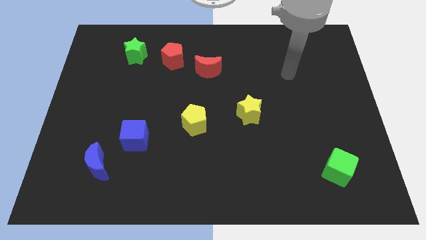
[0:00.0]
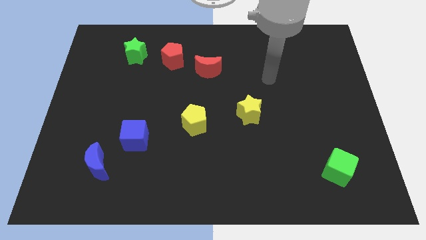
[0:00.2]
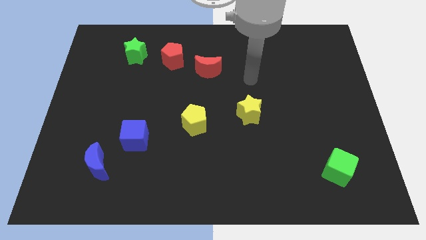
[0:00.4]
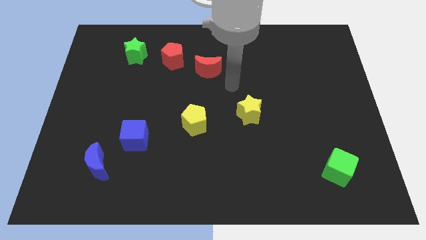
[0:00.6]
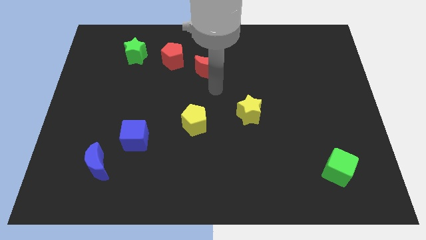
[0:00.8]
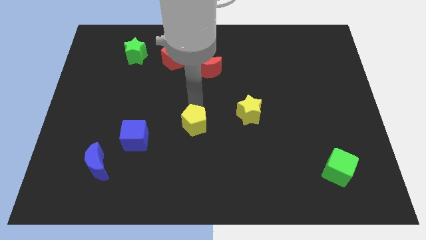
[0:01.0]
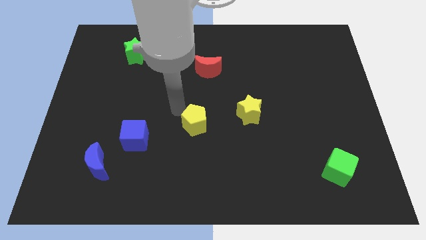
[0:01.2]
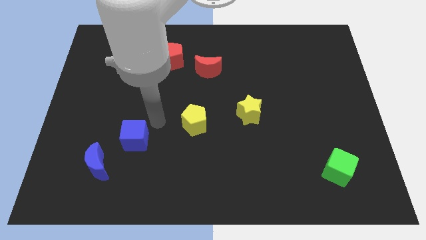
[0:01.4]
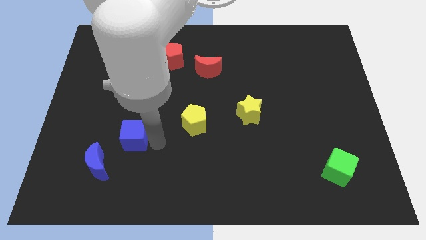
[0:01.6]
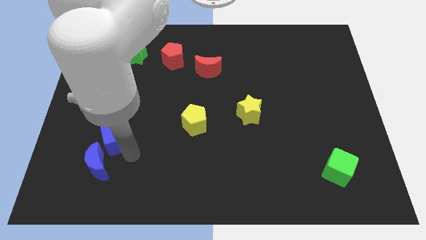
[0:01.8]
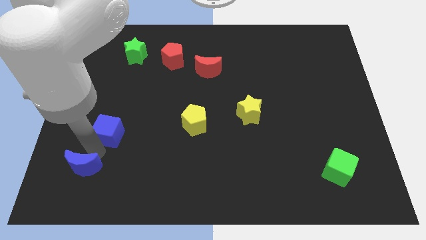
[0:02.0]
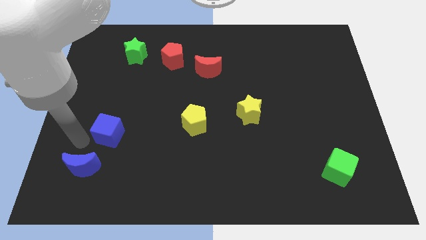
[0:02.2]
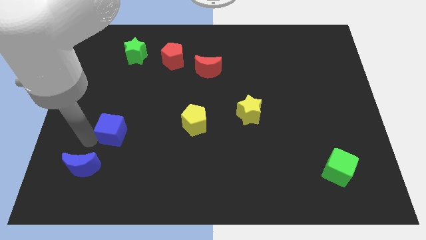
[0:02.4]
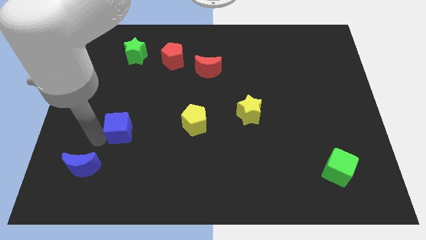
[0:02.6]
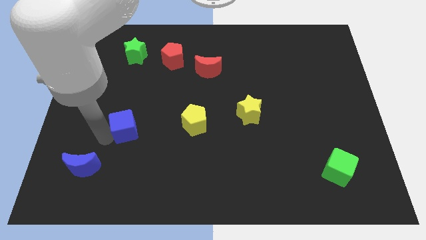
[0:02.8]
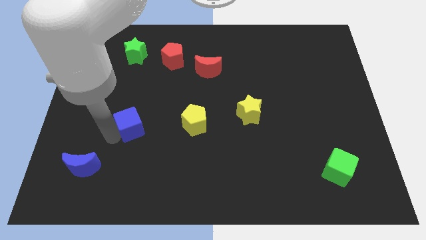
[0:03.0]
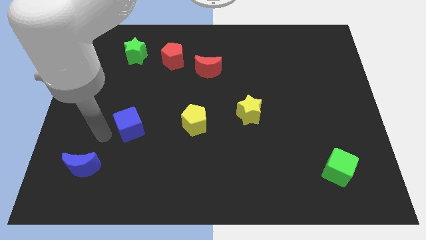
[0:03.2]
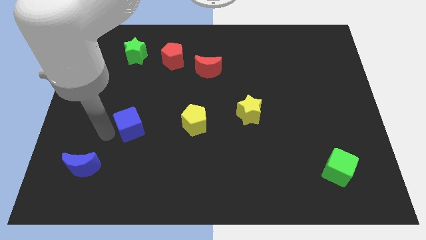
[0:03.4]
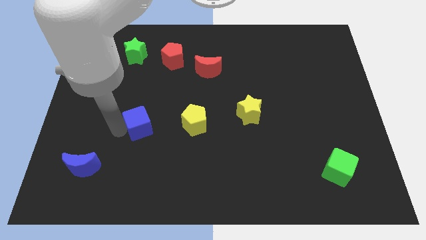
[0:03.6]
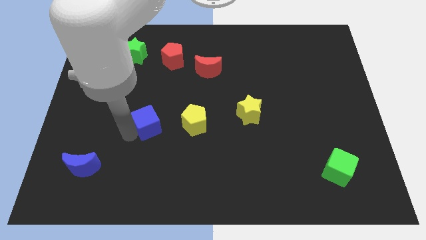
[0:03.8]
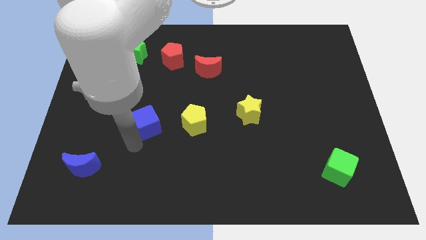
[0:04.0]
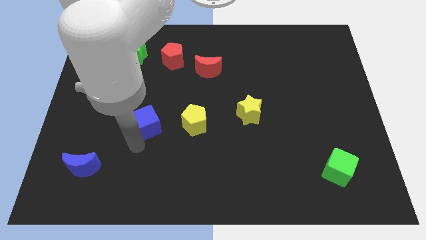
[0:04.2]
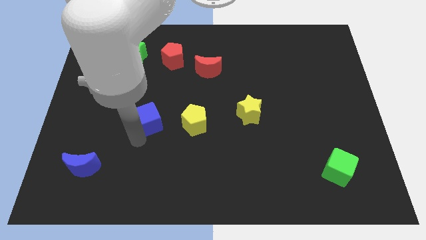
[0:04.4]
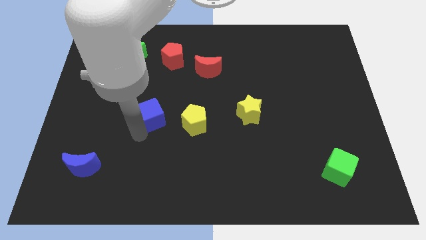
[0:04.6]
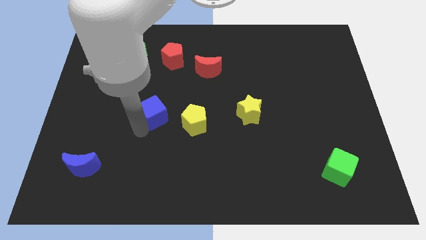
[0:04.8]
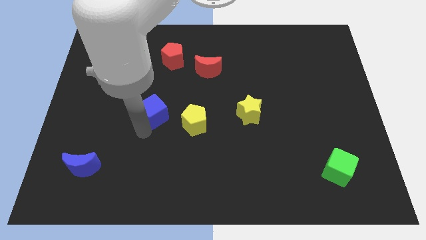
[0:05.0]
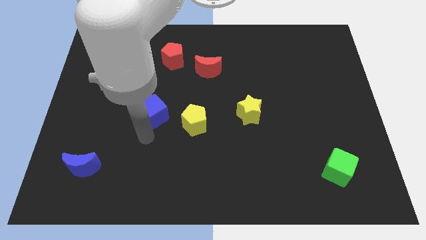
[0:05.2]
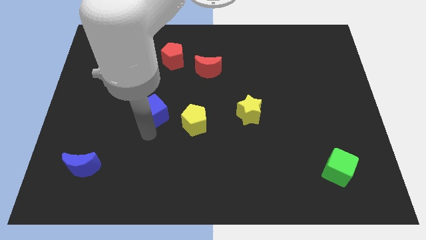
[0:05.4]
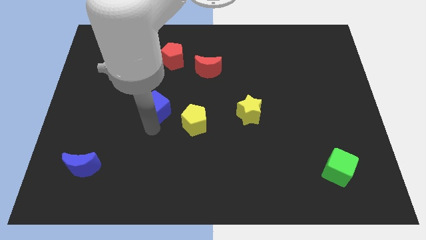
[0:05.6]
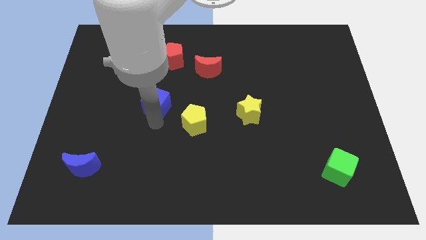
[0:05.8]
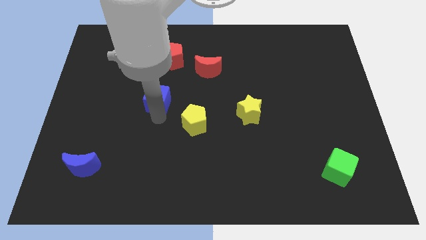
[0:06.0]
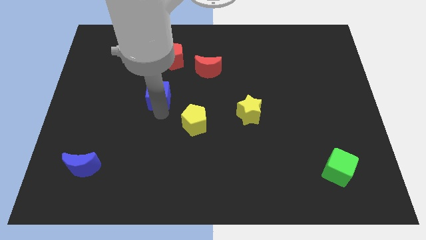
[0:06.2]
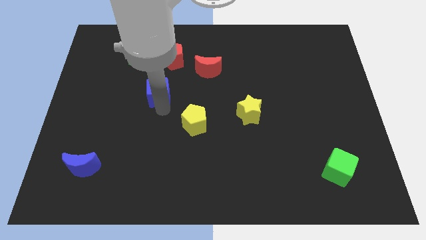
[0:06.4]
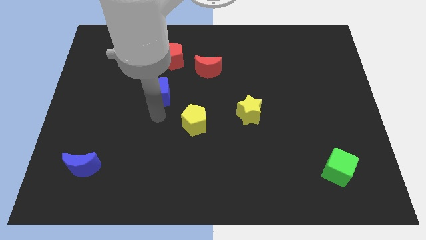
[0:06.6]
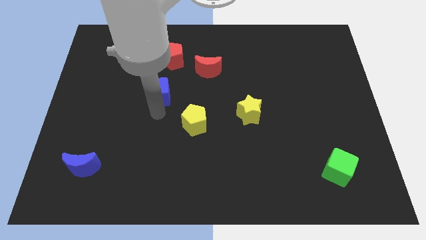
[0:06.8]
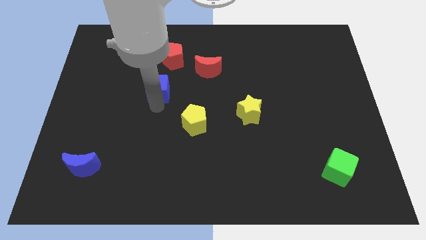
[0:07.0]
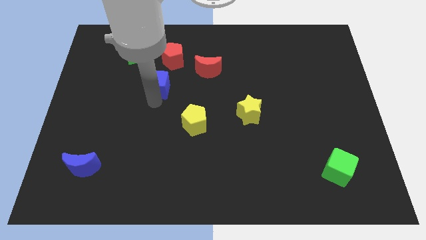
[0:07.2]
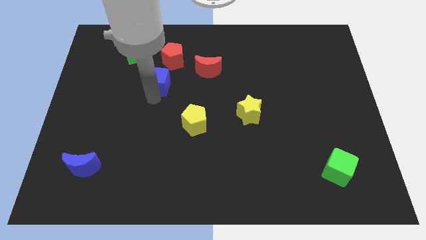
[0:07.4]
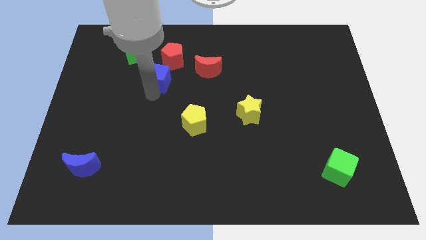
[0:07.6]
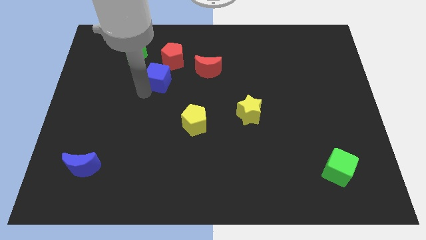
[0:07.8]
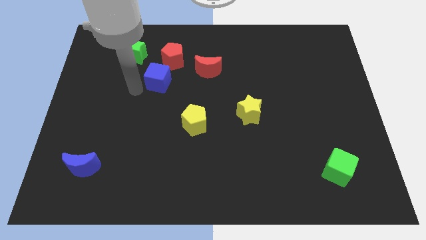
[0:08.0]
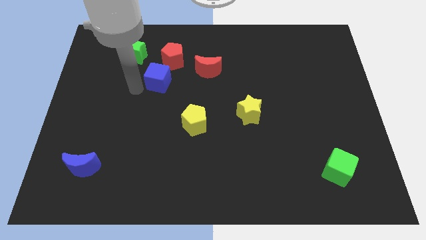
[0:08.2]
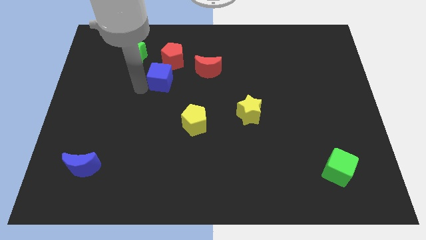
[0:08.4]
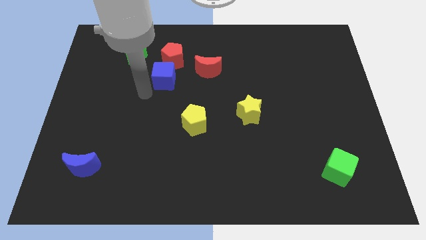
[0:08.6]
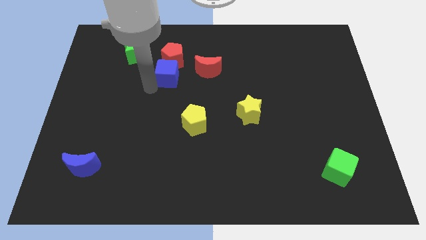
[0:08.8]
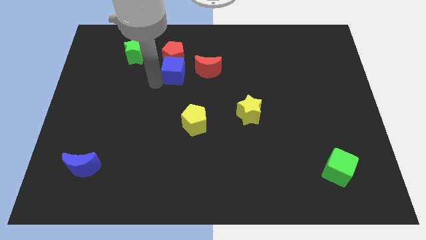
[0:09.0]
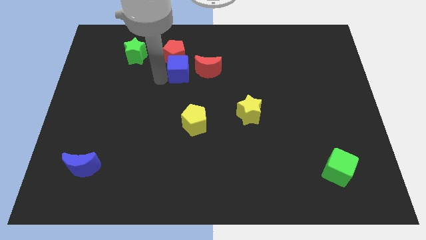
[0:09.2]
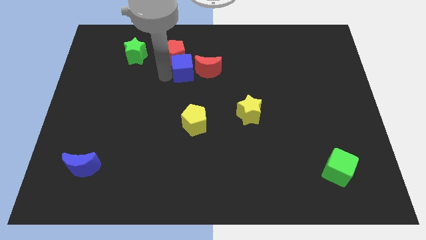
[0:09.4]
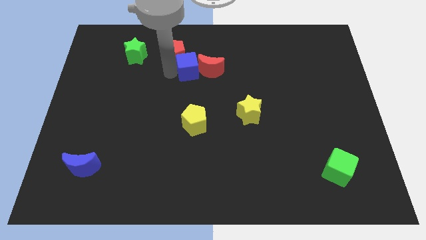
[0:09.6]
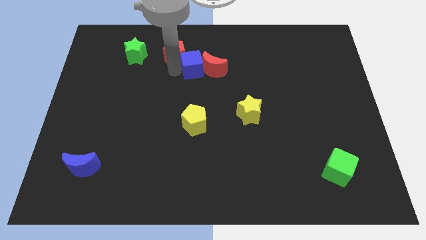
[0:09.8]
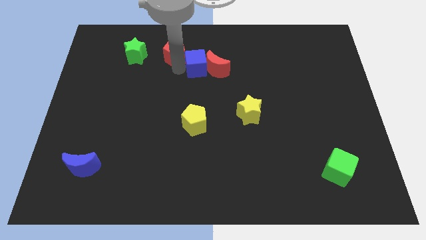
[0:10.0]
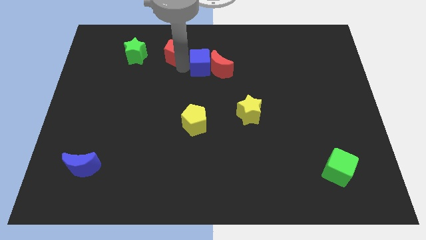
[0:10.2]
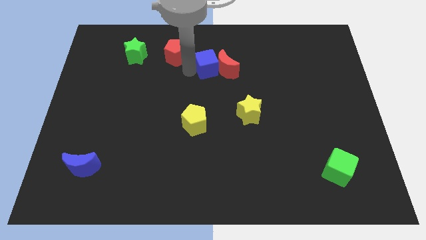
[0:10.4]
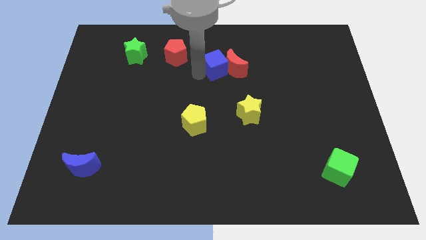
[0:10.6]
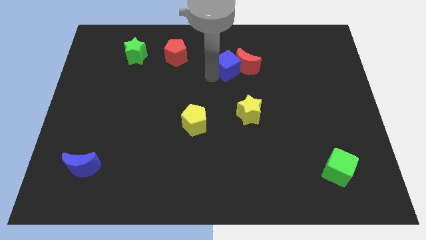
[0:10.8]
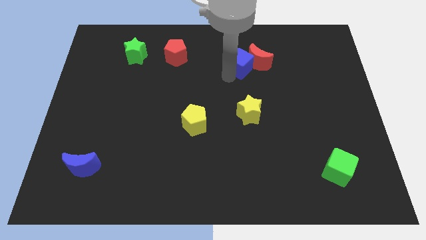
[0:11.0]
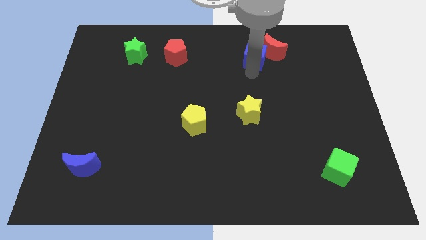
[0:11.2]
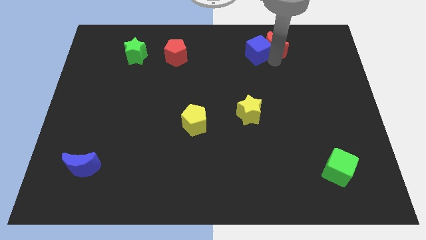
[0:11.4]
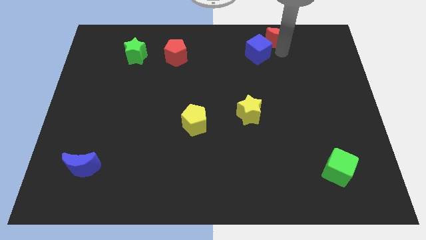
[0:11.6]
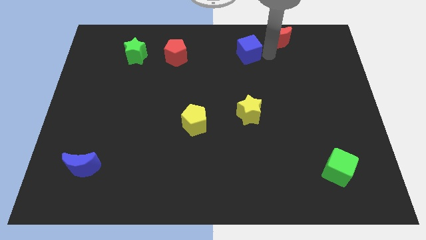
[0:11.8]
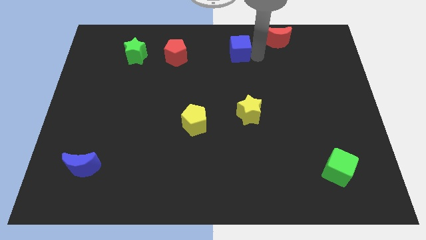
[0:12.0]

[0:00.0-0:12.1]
put the blue cube to the top
